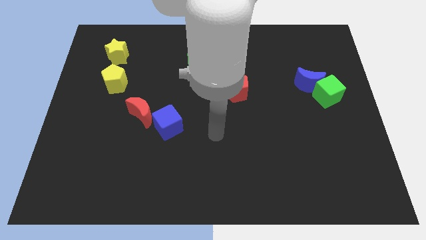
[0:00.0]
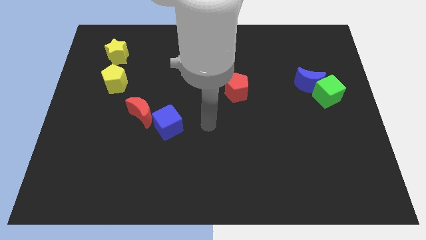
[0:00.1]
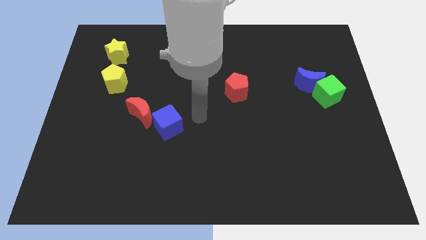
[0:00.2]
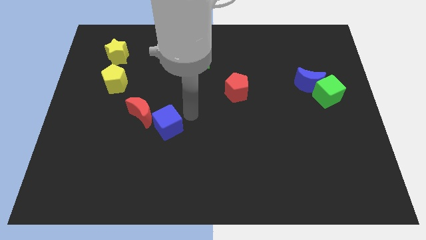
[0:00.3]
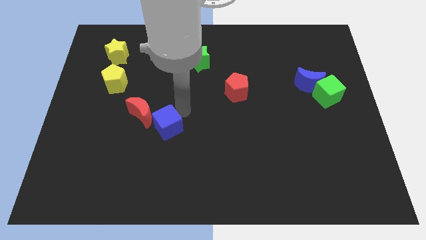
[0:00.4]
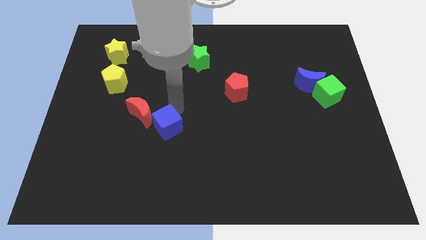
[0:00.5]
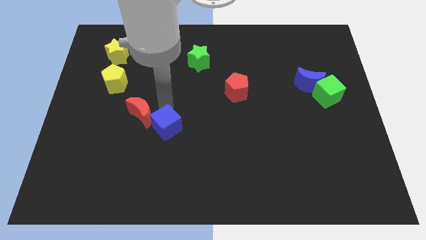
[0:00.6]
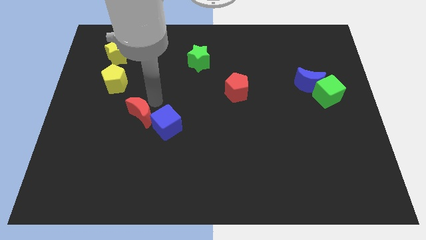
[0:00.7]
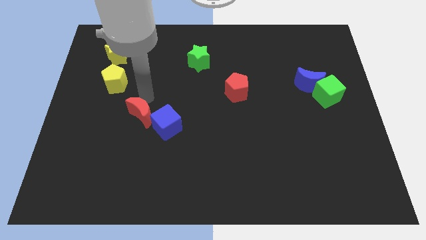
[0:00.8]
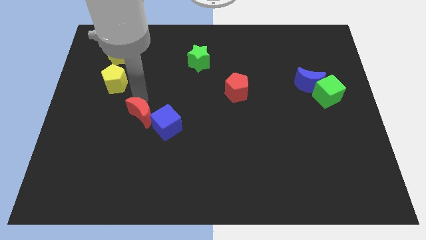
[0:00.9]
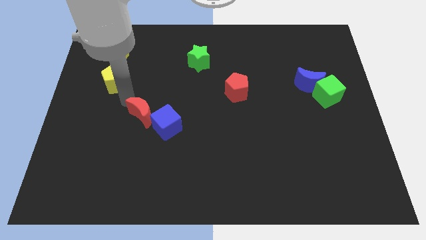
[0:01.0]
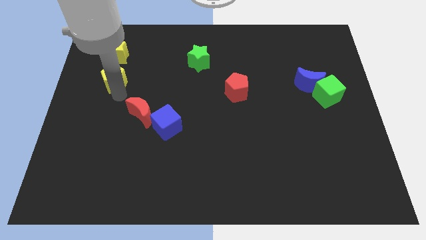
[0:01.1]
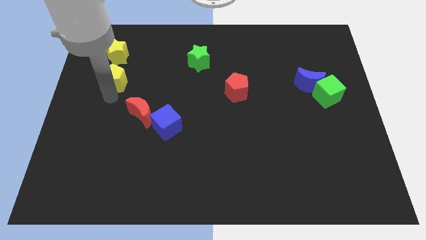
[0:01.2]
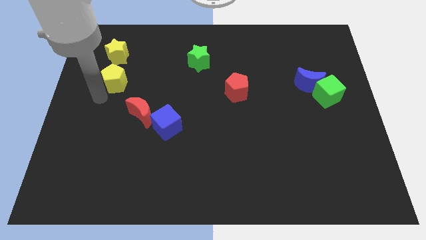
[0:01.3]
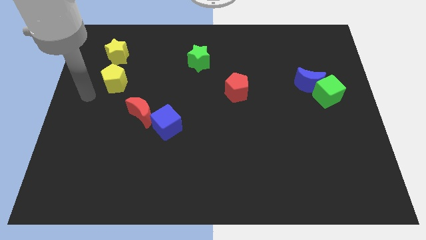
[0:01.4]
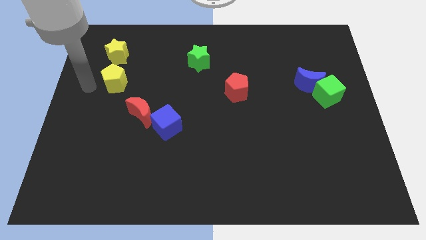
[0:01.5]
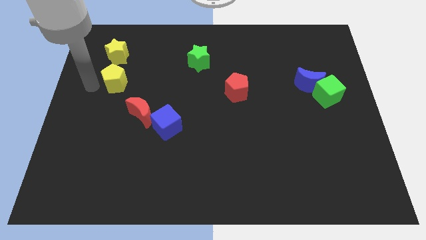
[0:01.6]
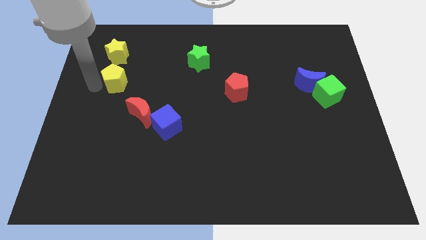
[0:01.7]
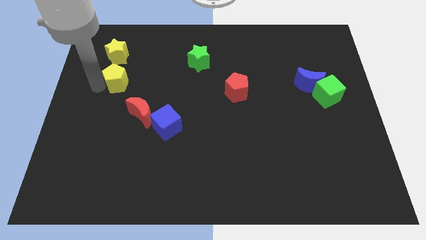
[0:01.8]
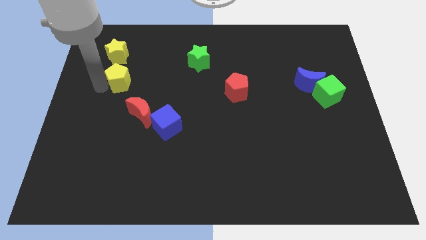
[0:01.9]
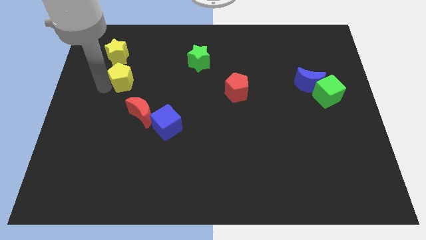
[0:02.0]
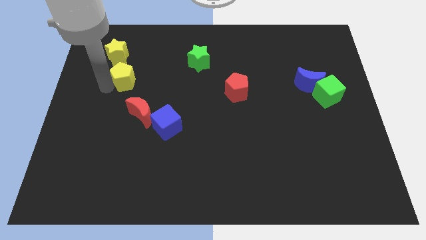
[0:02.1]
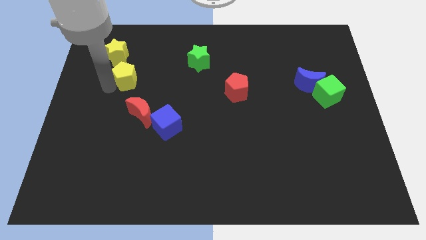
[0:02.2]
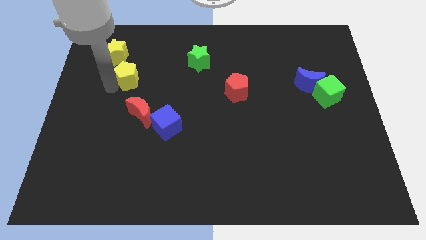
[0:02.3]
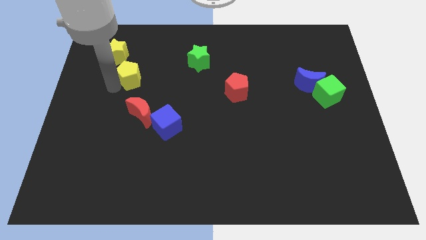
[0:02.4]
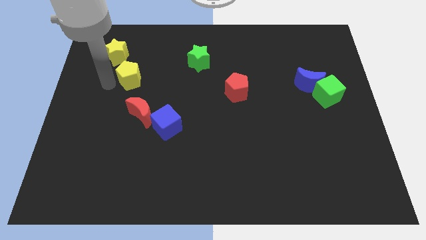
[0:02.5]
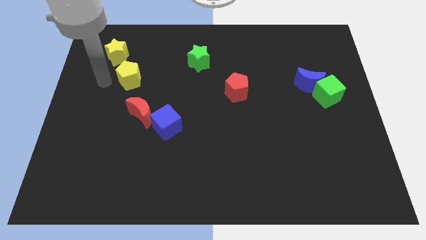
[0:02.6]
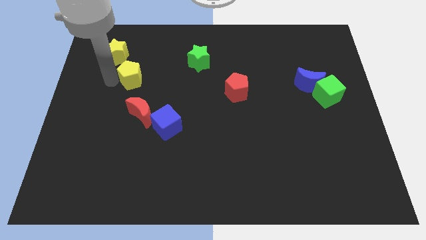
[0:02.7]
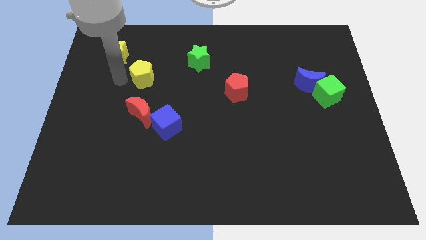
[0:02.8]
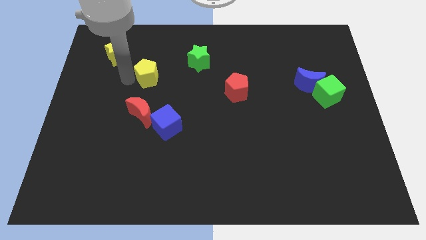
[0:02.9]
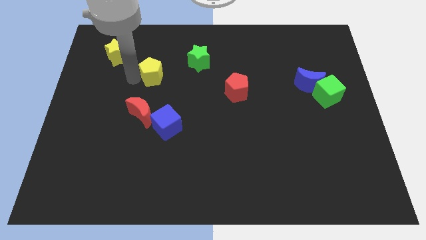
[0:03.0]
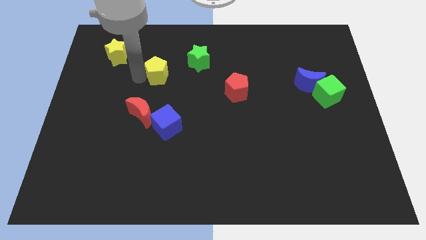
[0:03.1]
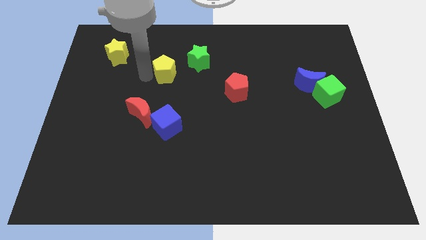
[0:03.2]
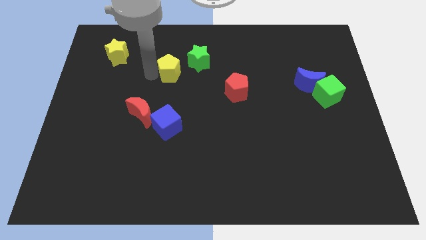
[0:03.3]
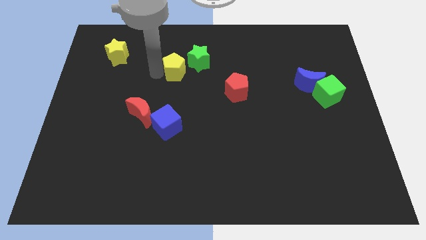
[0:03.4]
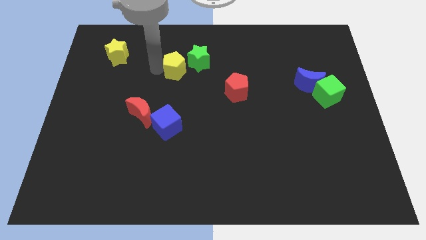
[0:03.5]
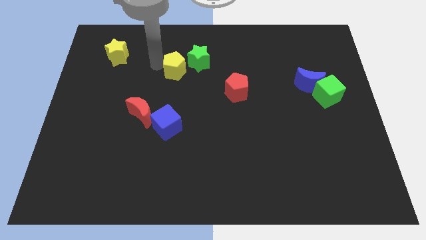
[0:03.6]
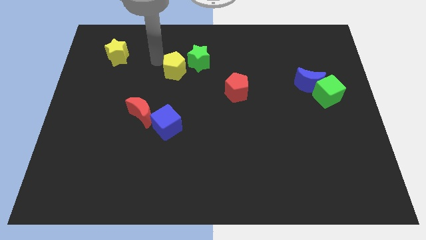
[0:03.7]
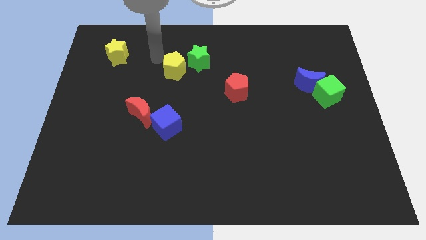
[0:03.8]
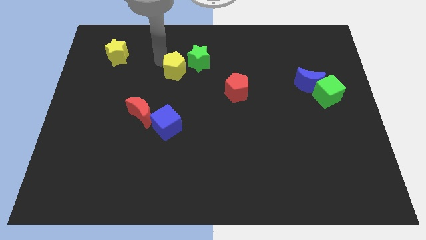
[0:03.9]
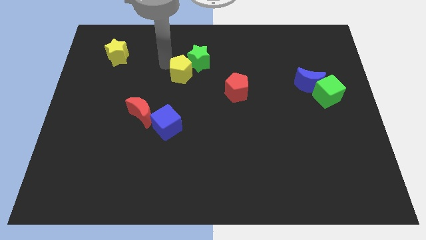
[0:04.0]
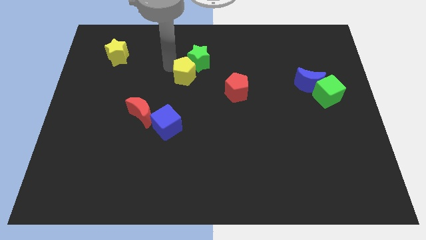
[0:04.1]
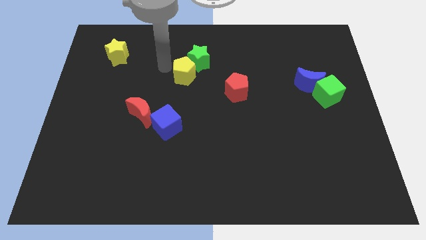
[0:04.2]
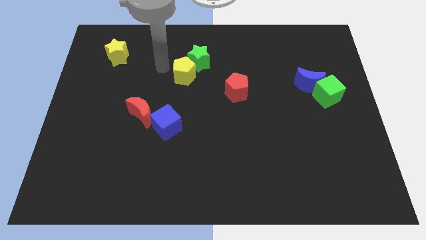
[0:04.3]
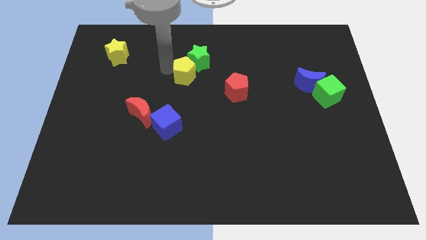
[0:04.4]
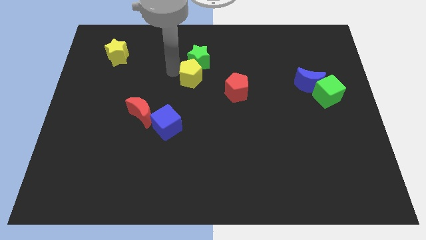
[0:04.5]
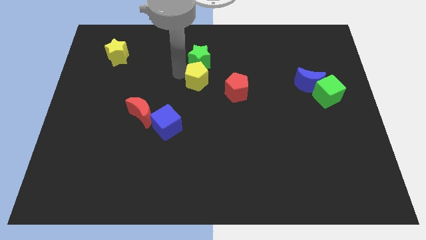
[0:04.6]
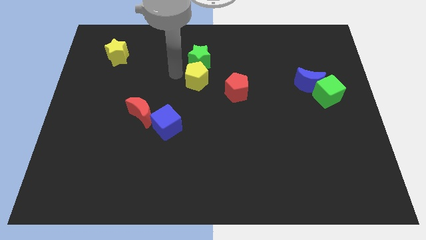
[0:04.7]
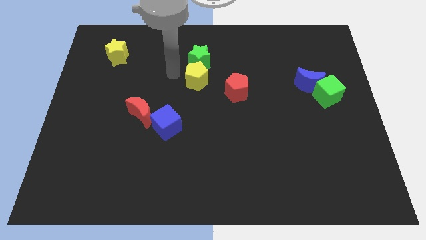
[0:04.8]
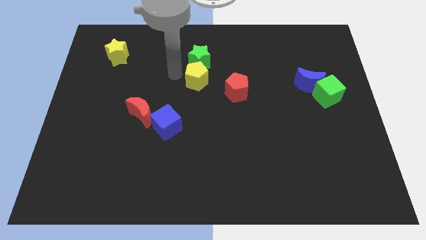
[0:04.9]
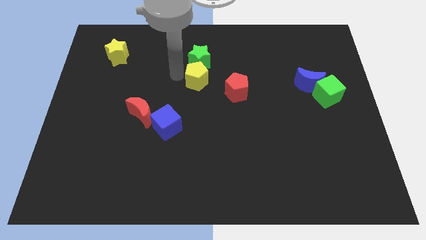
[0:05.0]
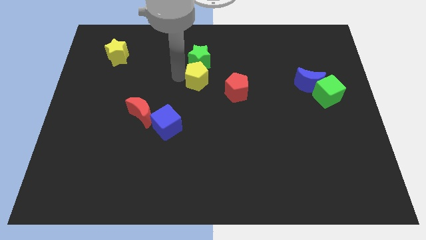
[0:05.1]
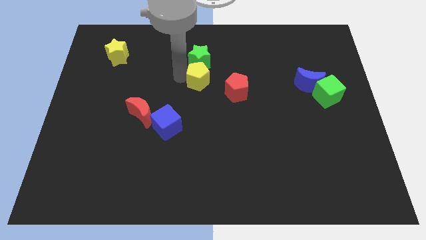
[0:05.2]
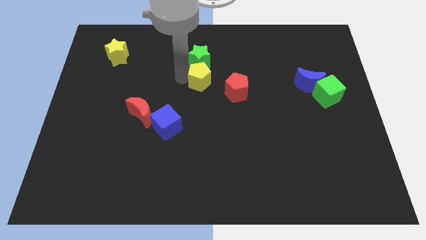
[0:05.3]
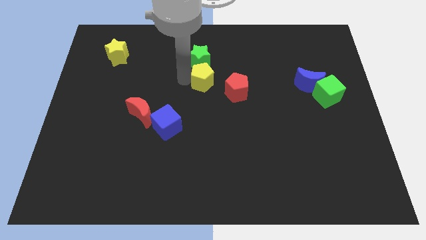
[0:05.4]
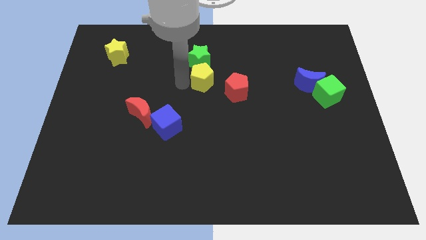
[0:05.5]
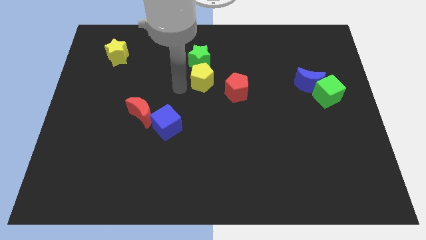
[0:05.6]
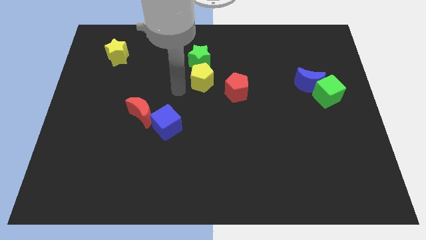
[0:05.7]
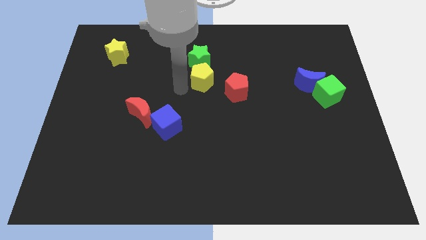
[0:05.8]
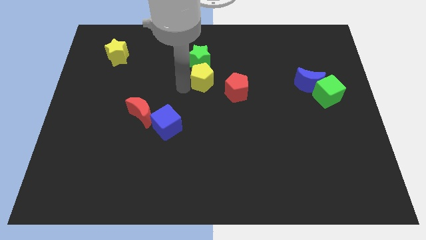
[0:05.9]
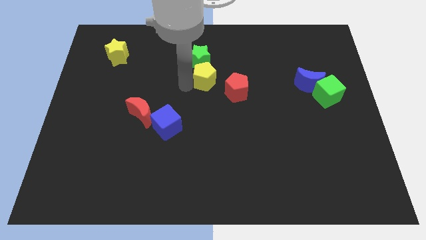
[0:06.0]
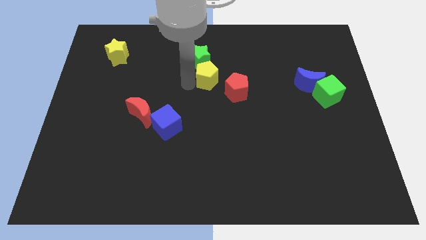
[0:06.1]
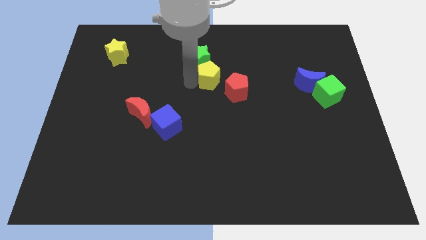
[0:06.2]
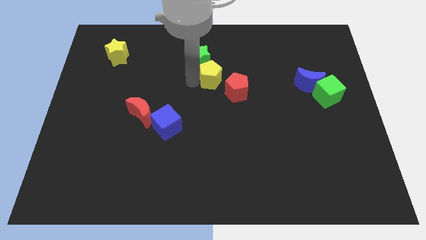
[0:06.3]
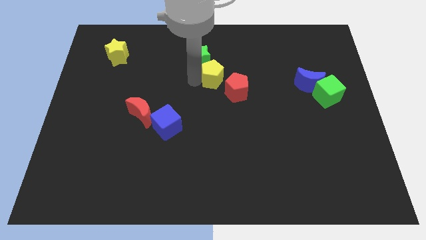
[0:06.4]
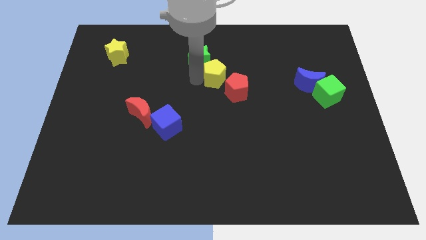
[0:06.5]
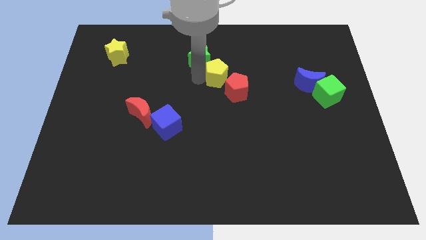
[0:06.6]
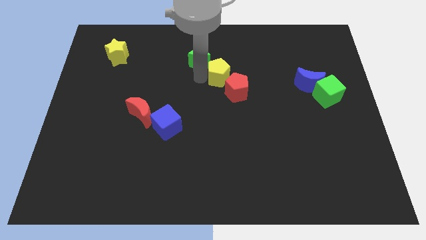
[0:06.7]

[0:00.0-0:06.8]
push the yellow pentagon right of the green star
